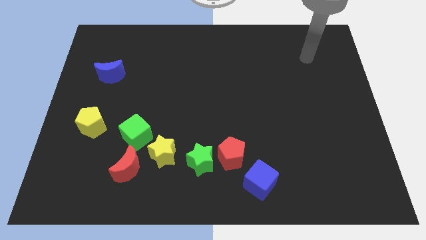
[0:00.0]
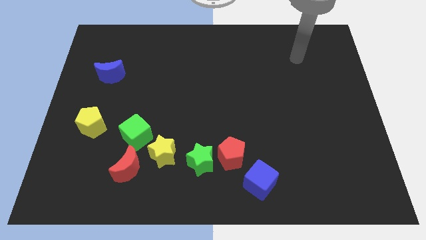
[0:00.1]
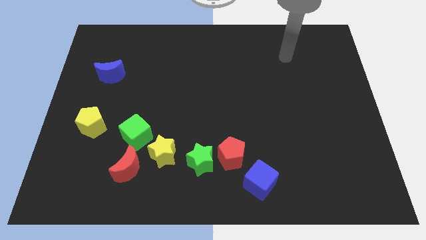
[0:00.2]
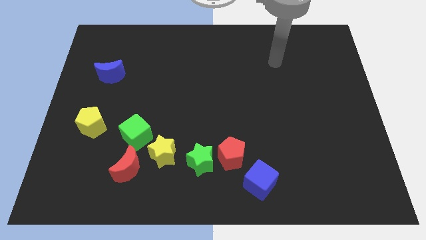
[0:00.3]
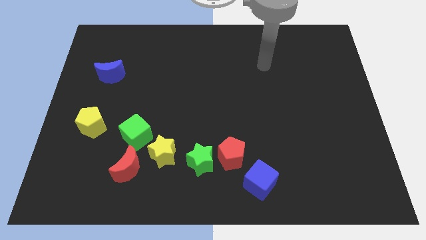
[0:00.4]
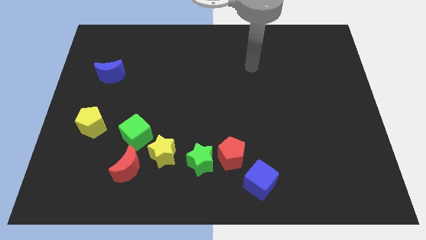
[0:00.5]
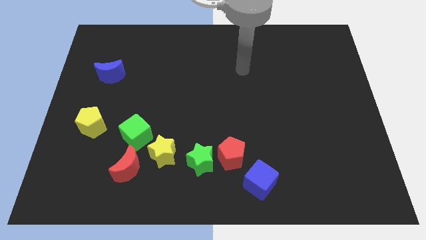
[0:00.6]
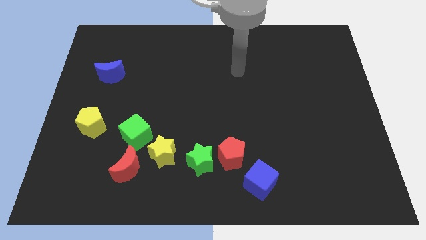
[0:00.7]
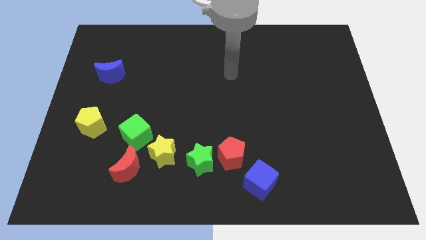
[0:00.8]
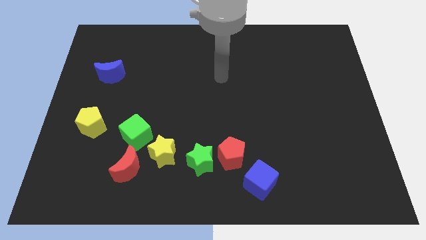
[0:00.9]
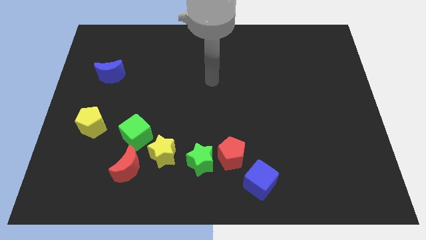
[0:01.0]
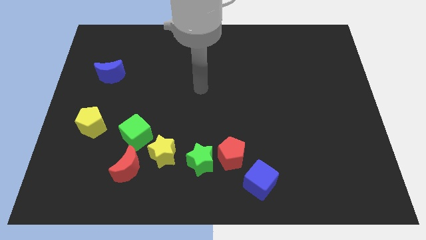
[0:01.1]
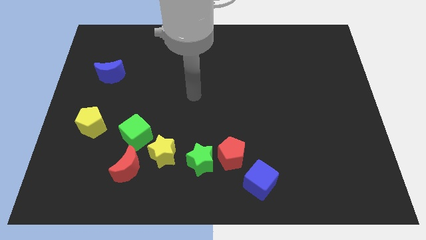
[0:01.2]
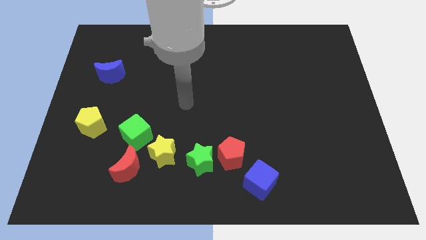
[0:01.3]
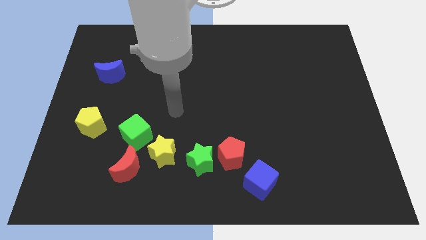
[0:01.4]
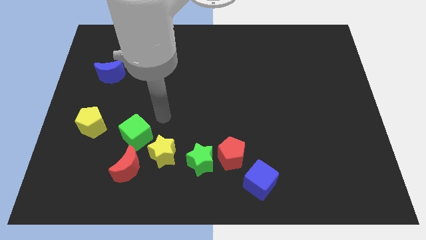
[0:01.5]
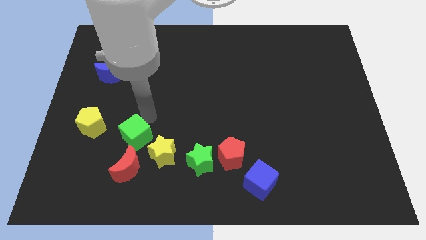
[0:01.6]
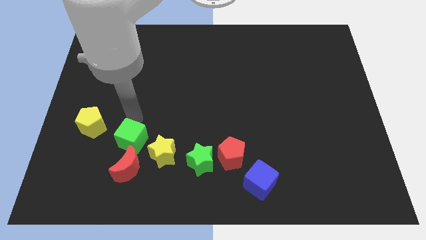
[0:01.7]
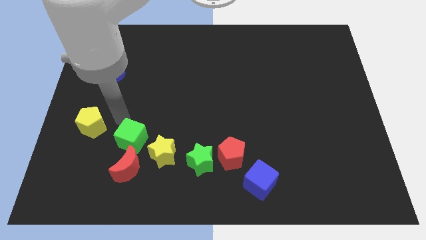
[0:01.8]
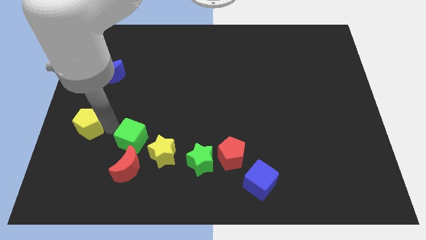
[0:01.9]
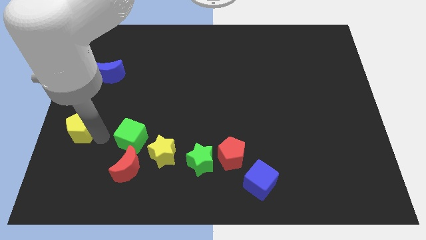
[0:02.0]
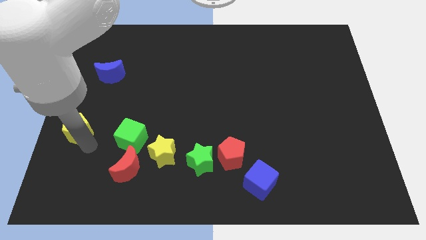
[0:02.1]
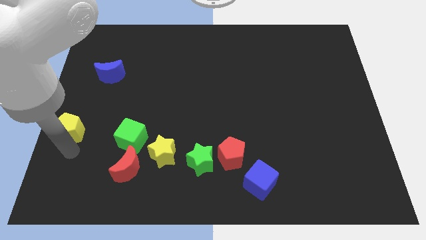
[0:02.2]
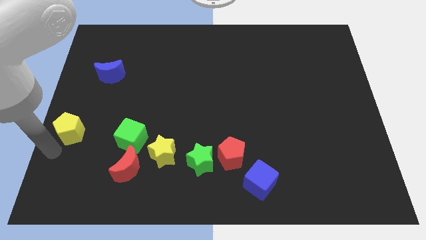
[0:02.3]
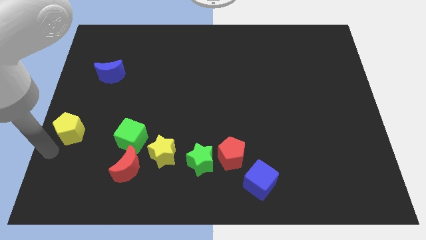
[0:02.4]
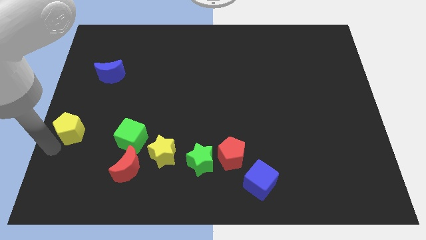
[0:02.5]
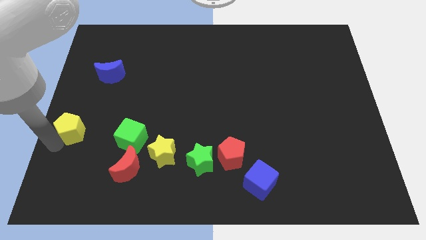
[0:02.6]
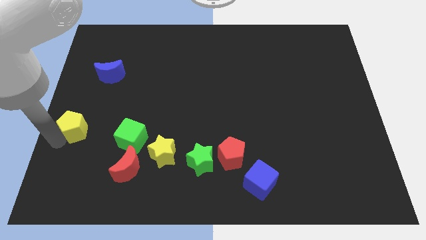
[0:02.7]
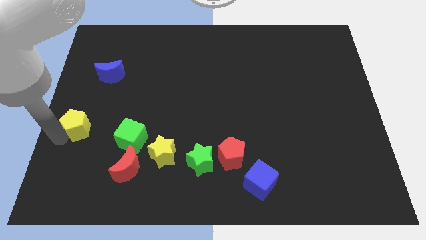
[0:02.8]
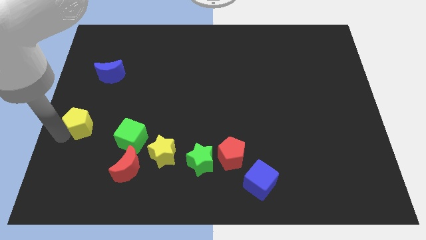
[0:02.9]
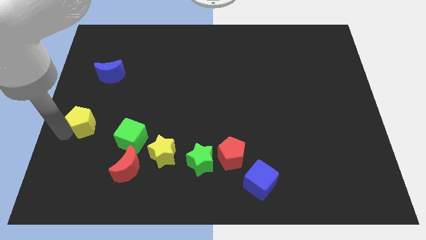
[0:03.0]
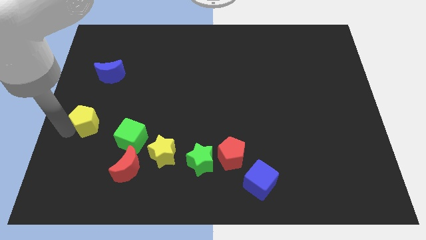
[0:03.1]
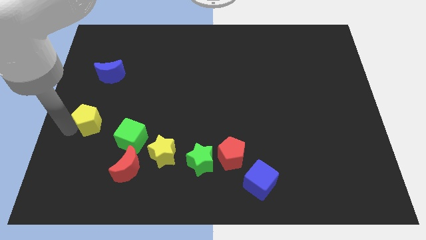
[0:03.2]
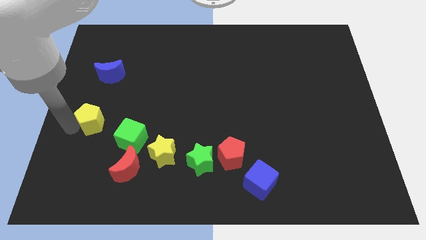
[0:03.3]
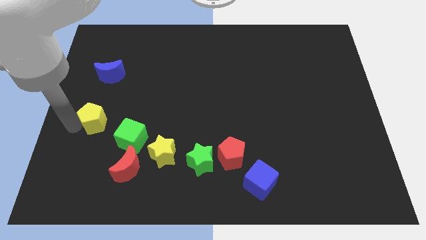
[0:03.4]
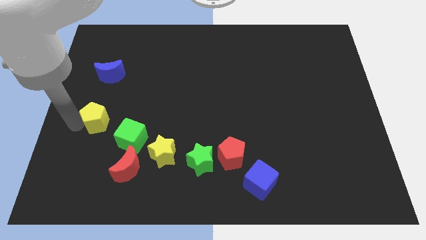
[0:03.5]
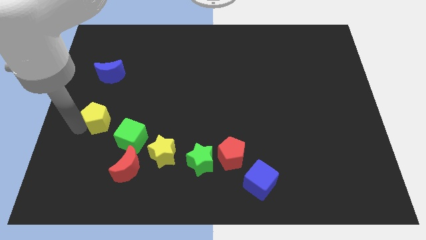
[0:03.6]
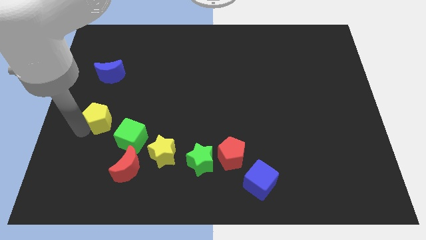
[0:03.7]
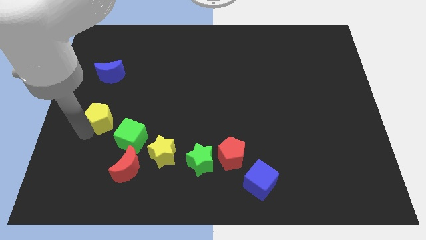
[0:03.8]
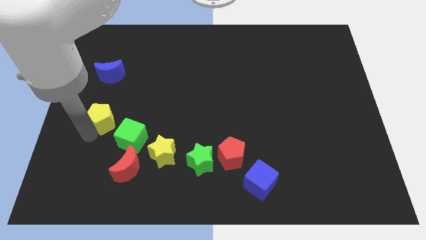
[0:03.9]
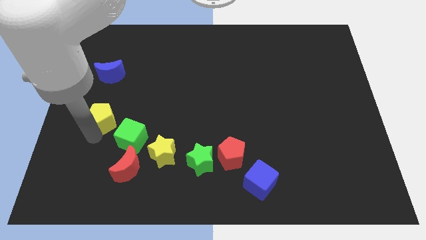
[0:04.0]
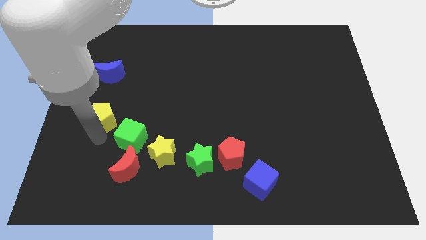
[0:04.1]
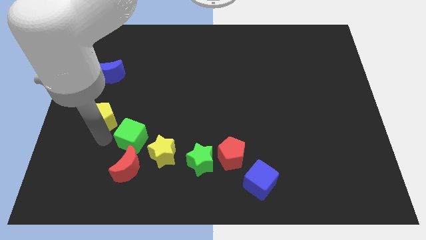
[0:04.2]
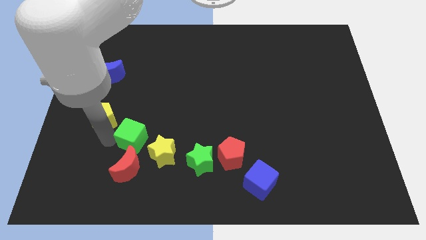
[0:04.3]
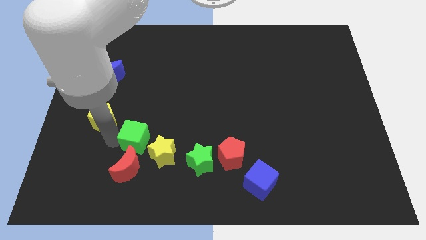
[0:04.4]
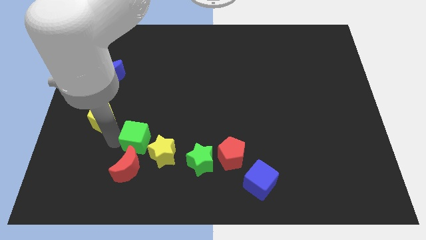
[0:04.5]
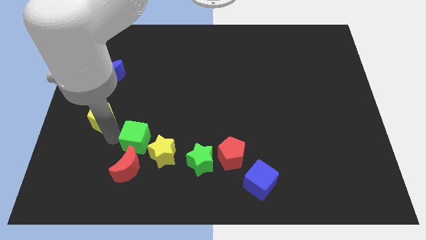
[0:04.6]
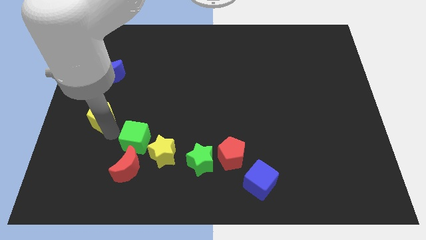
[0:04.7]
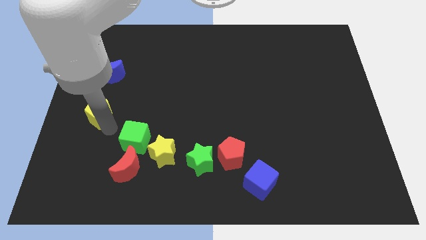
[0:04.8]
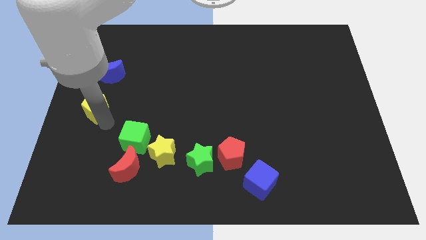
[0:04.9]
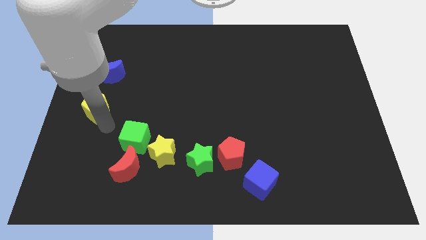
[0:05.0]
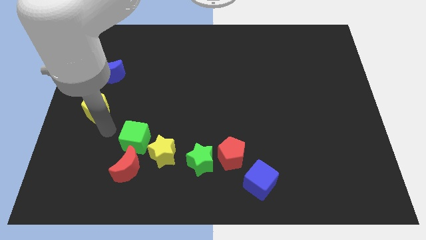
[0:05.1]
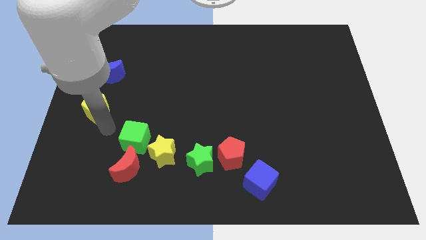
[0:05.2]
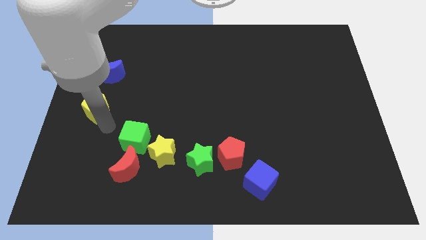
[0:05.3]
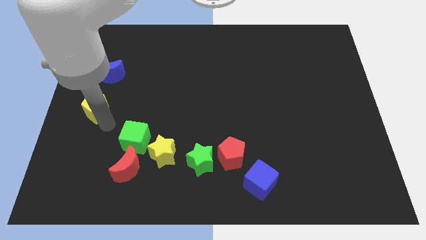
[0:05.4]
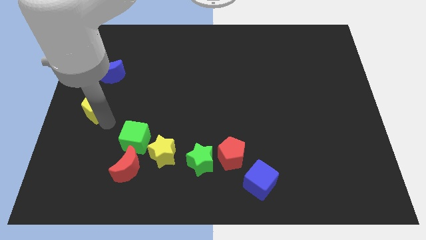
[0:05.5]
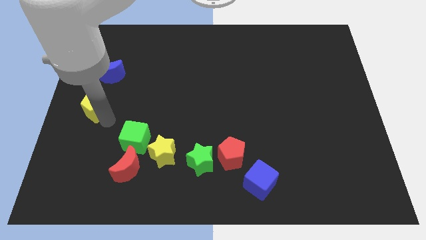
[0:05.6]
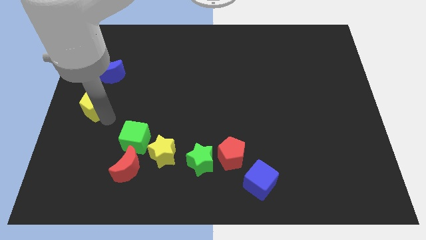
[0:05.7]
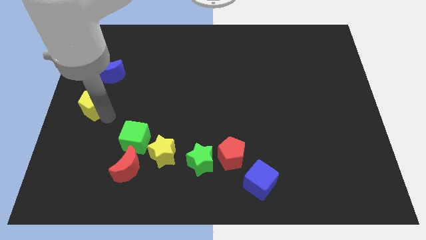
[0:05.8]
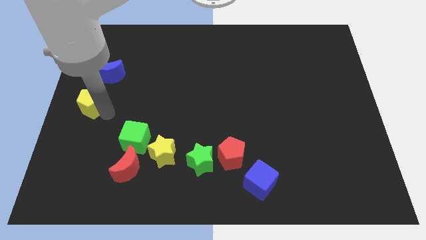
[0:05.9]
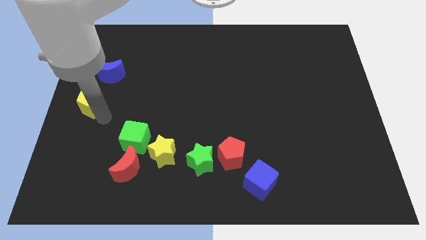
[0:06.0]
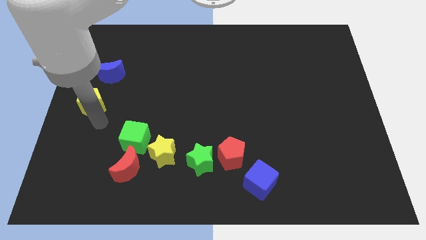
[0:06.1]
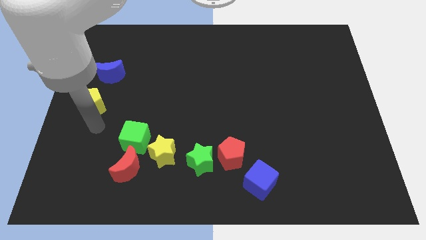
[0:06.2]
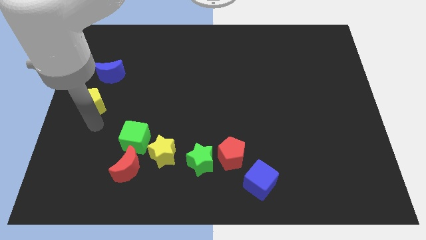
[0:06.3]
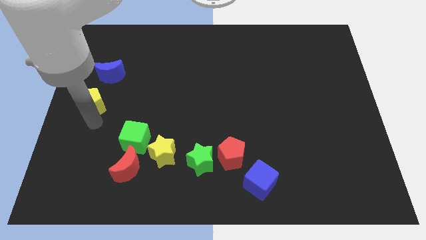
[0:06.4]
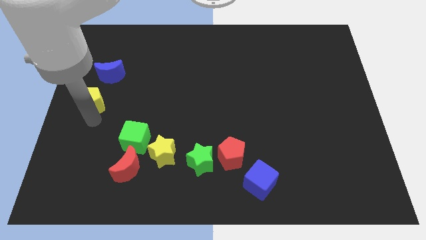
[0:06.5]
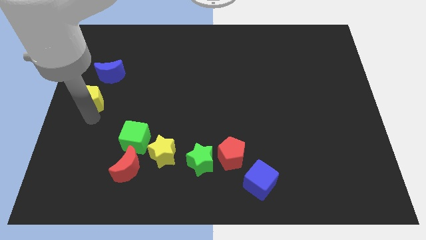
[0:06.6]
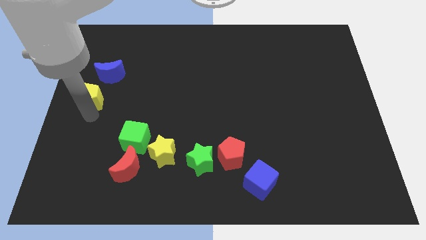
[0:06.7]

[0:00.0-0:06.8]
slightly slide the yellow pentagon up

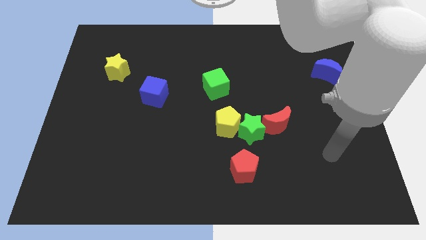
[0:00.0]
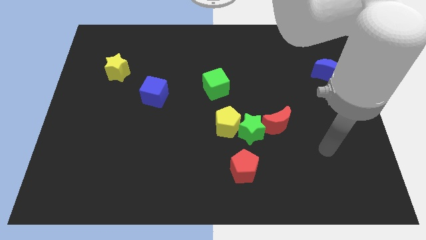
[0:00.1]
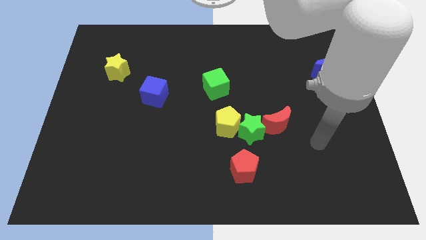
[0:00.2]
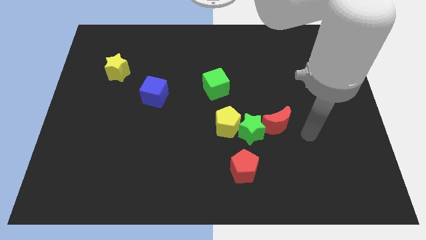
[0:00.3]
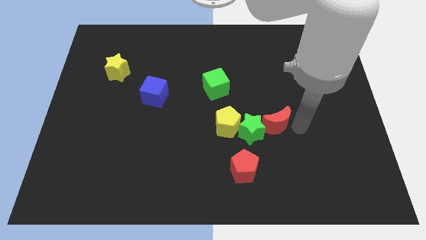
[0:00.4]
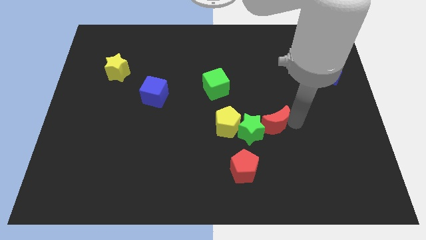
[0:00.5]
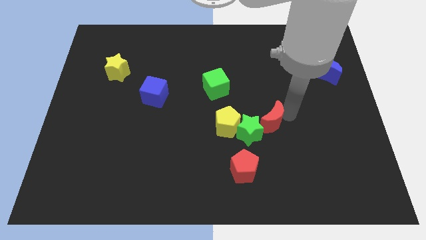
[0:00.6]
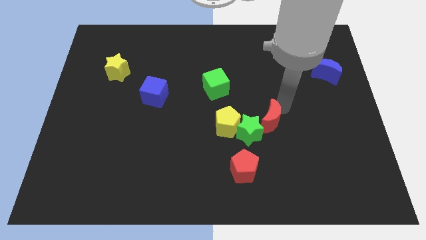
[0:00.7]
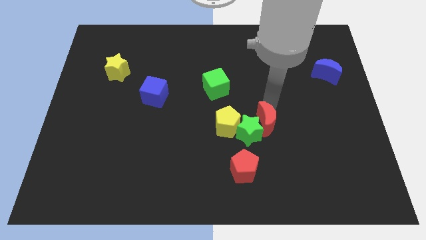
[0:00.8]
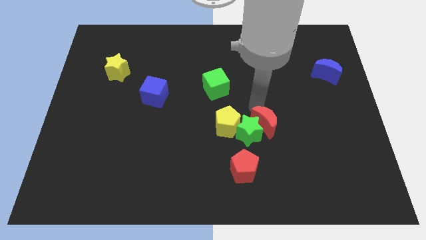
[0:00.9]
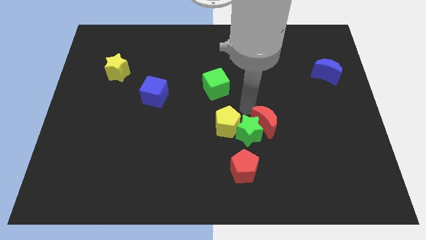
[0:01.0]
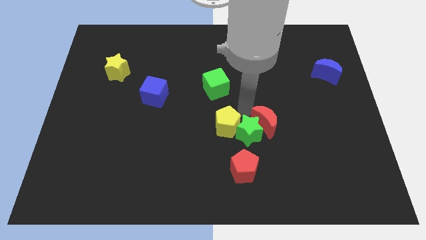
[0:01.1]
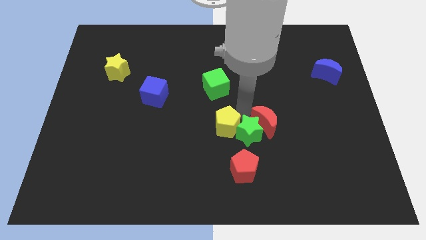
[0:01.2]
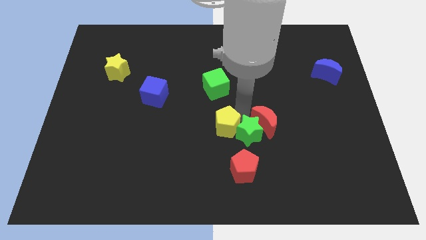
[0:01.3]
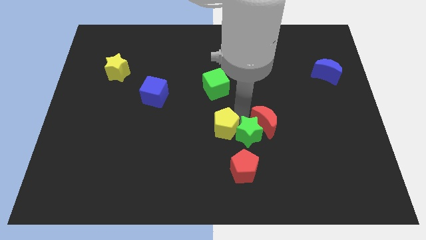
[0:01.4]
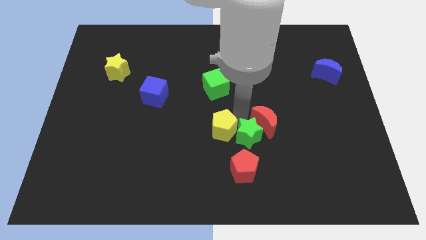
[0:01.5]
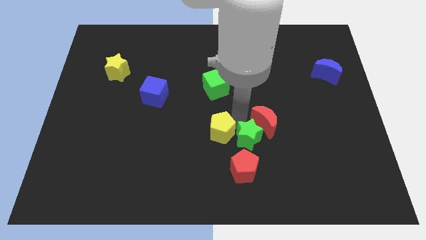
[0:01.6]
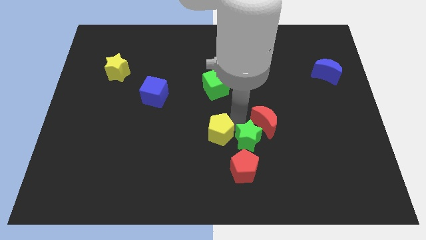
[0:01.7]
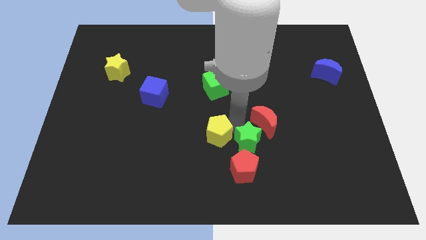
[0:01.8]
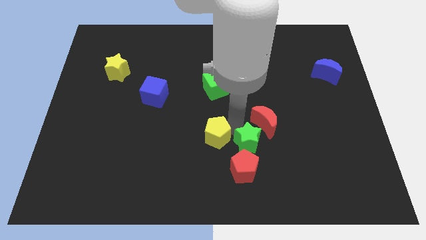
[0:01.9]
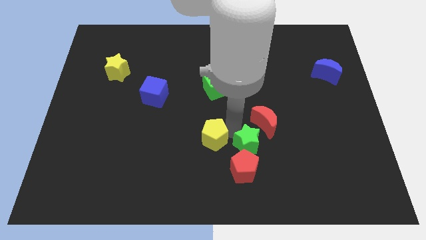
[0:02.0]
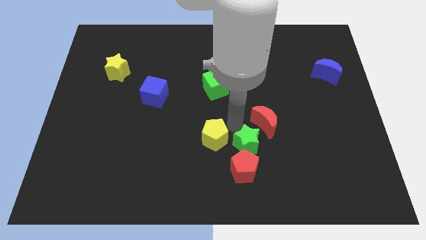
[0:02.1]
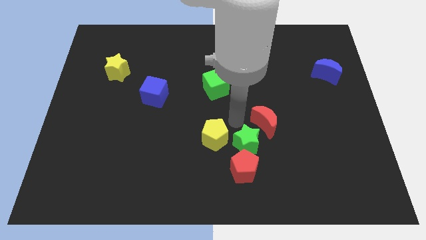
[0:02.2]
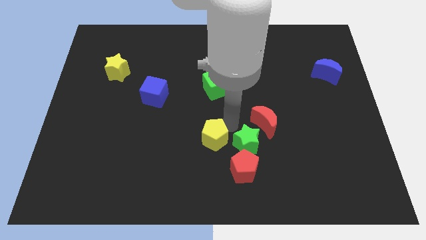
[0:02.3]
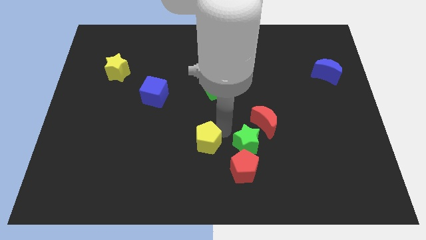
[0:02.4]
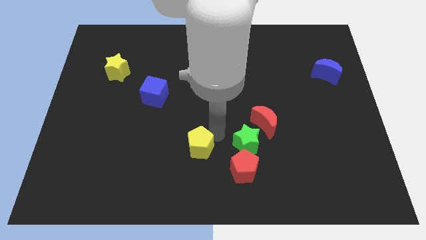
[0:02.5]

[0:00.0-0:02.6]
push the yellow pentagon down and left diagonally a little bit
